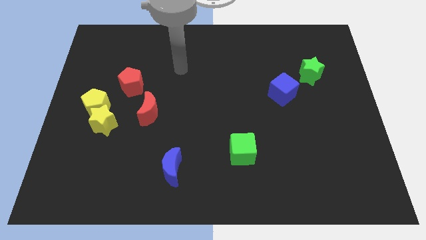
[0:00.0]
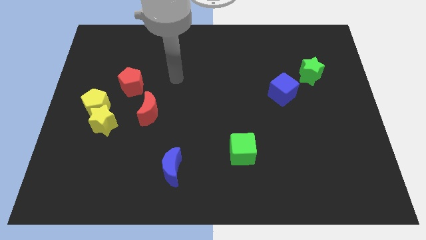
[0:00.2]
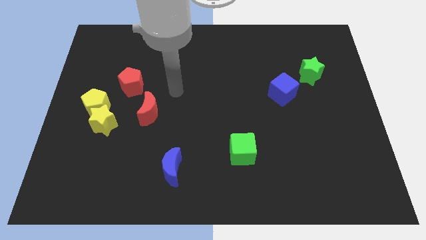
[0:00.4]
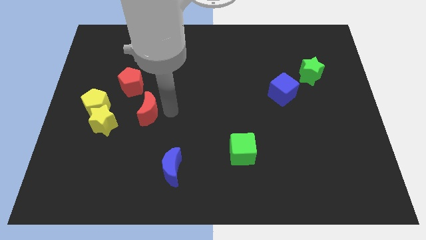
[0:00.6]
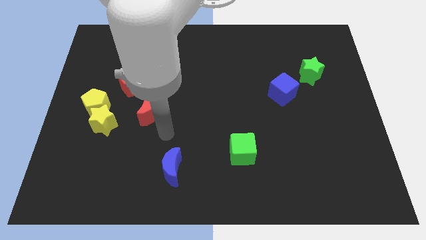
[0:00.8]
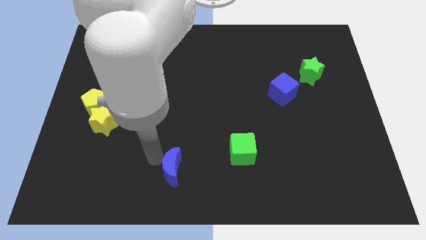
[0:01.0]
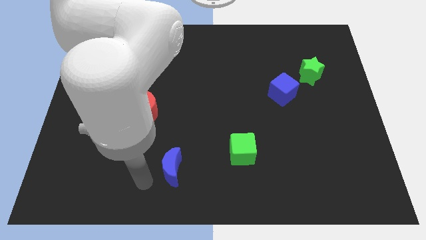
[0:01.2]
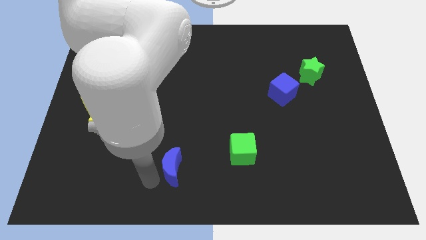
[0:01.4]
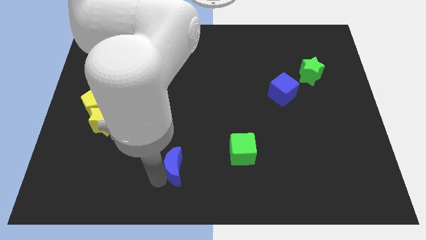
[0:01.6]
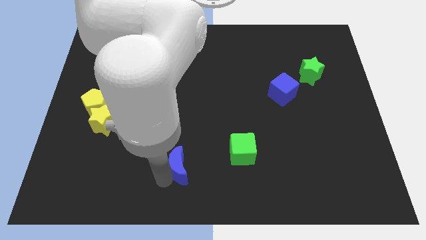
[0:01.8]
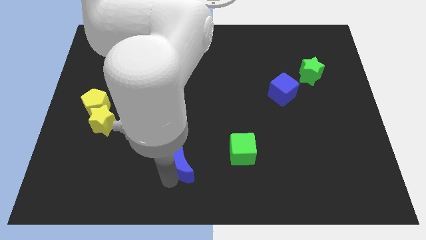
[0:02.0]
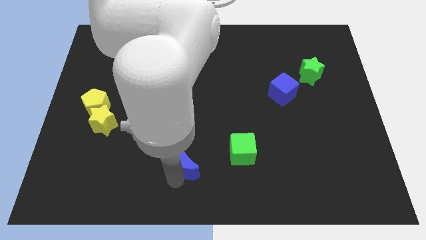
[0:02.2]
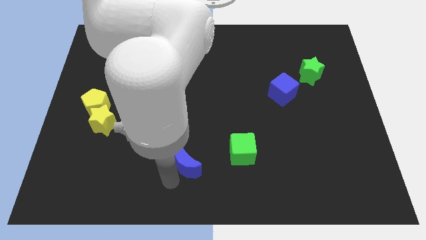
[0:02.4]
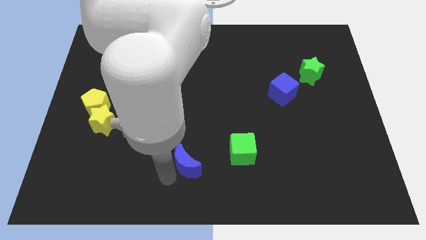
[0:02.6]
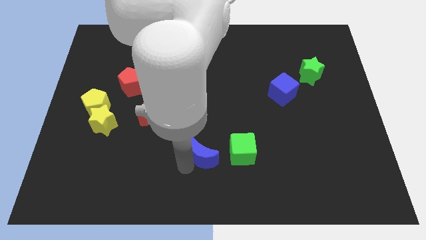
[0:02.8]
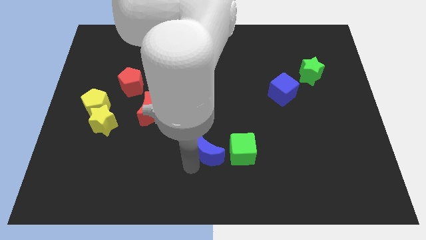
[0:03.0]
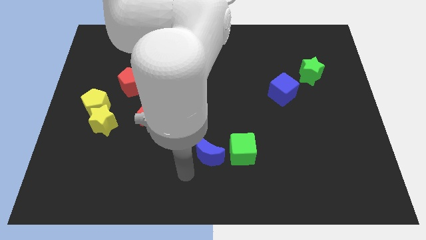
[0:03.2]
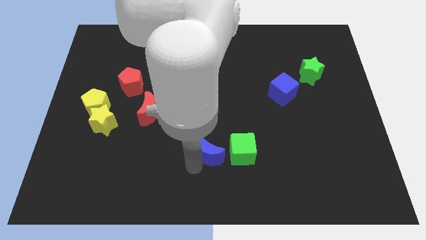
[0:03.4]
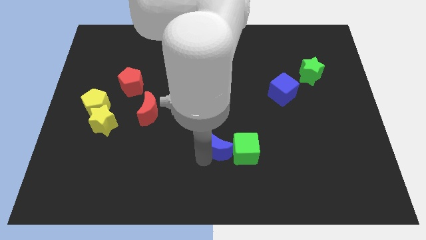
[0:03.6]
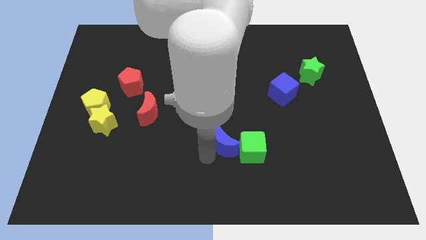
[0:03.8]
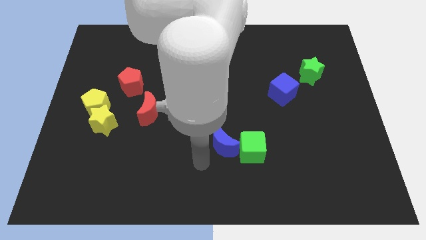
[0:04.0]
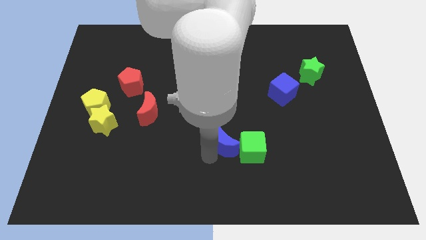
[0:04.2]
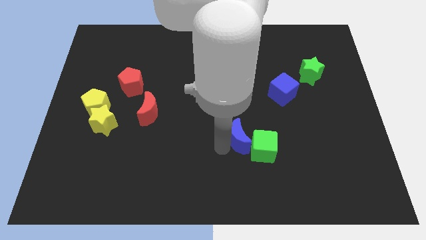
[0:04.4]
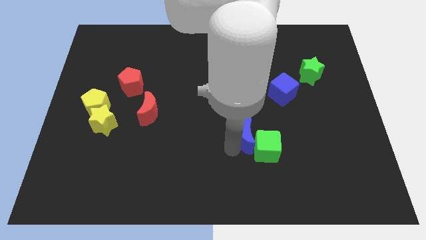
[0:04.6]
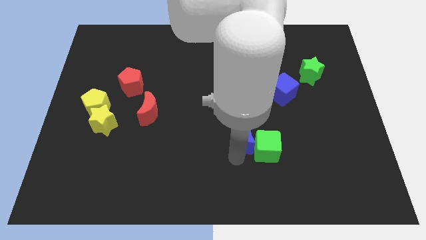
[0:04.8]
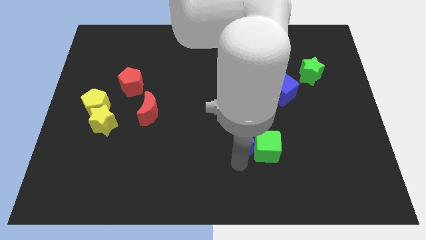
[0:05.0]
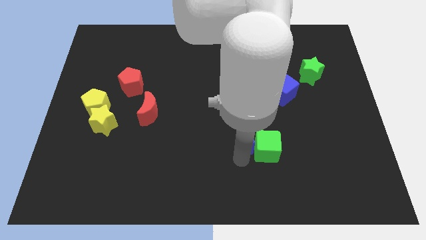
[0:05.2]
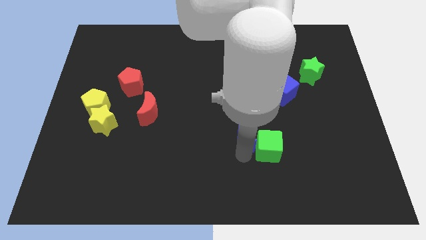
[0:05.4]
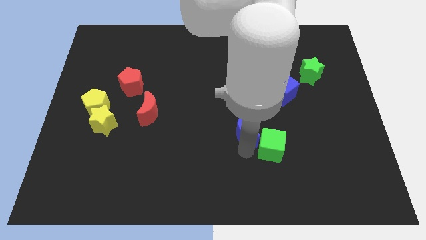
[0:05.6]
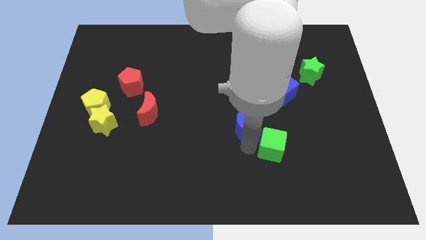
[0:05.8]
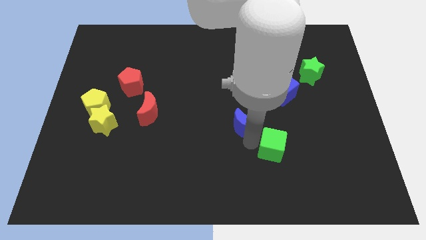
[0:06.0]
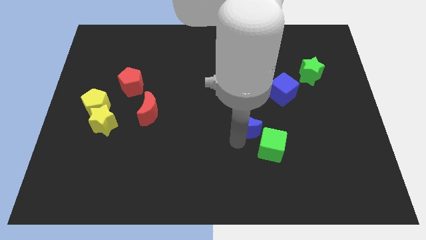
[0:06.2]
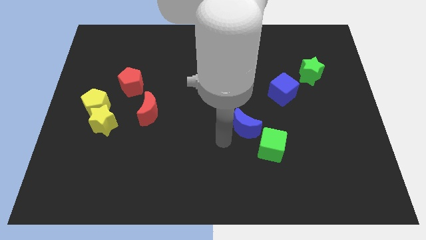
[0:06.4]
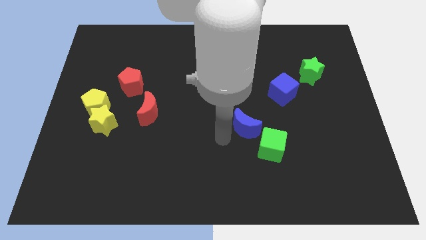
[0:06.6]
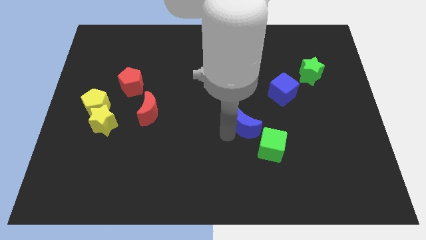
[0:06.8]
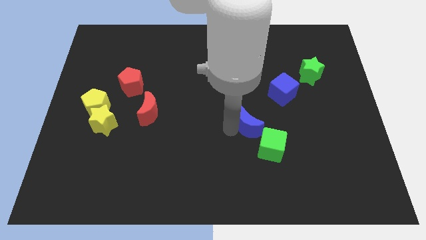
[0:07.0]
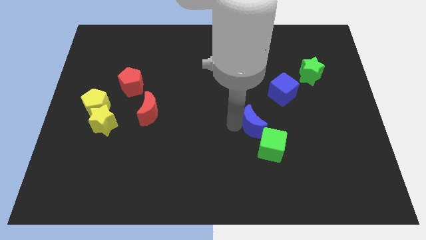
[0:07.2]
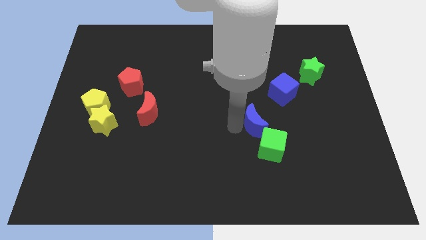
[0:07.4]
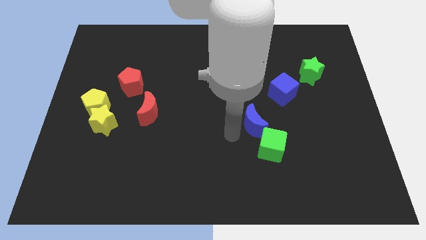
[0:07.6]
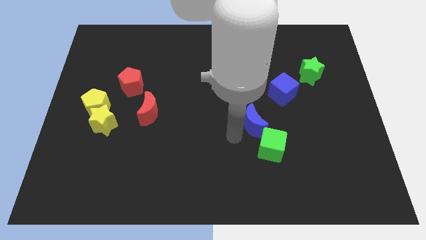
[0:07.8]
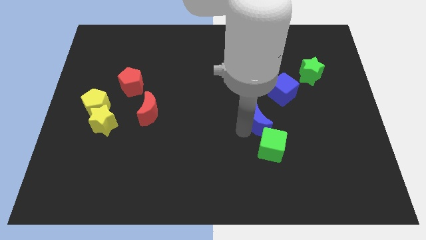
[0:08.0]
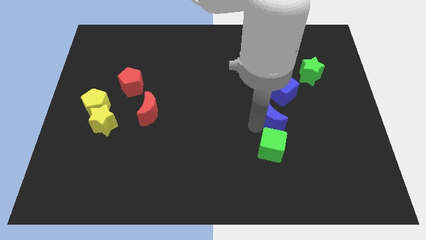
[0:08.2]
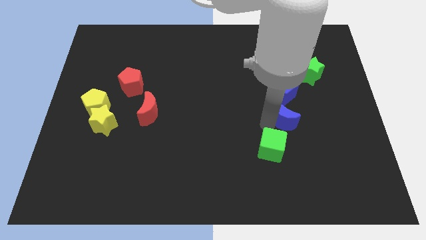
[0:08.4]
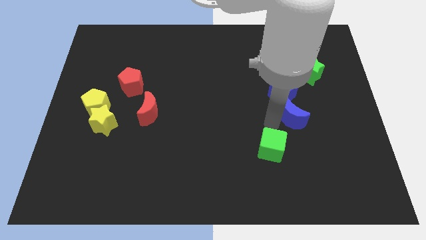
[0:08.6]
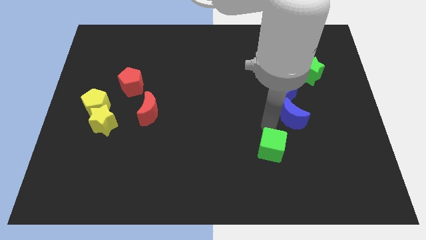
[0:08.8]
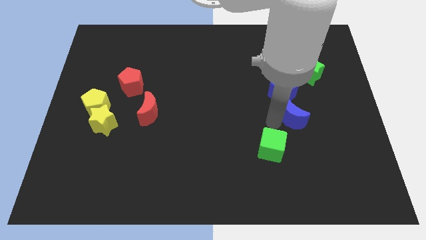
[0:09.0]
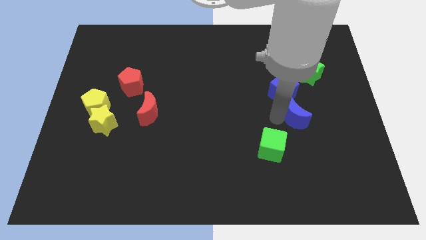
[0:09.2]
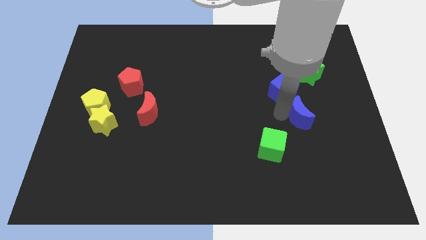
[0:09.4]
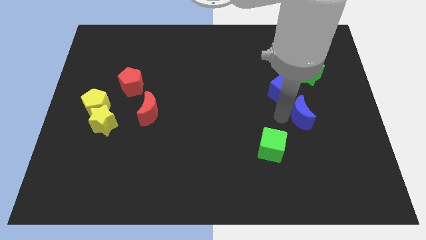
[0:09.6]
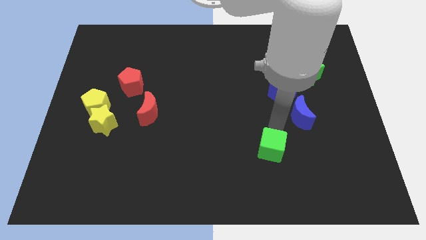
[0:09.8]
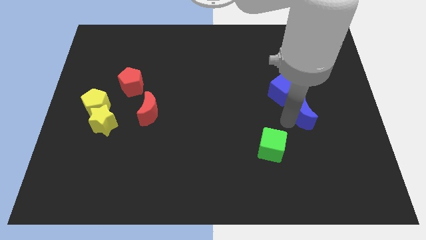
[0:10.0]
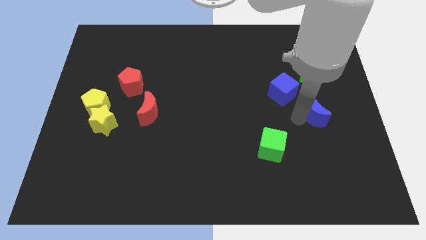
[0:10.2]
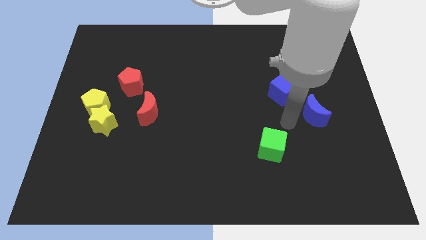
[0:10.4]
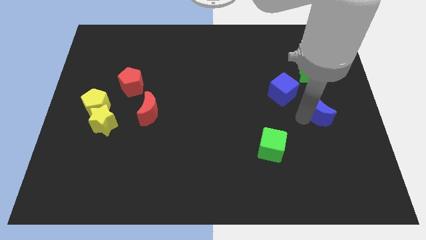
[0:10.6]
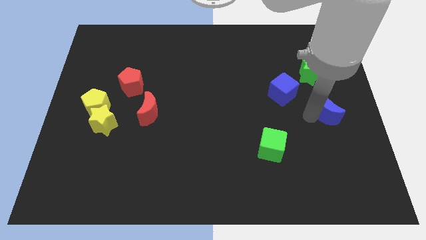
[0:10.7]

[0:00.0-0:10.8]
move the blue moon to the right side

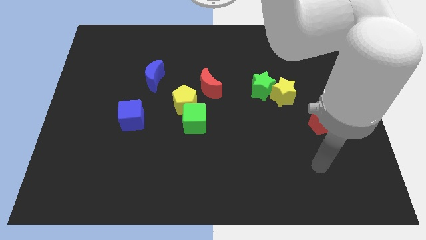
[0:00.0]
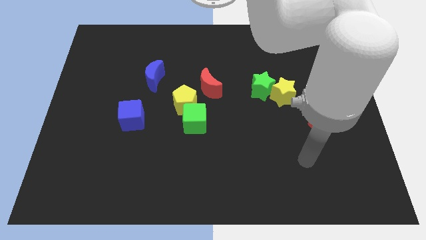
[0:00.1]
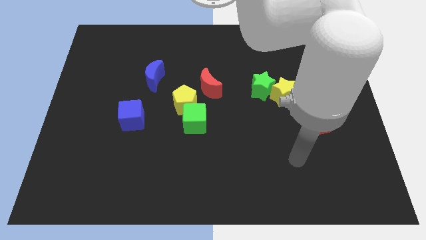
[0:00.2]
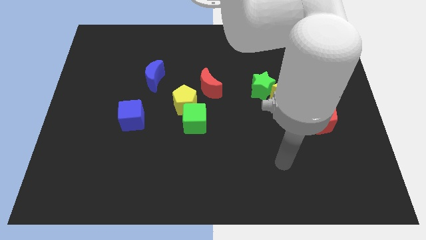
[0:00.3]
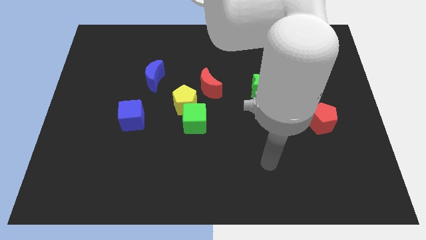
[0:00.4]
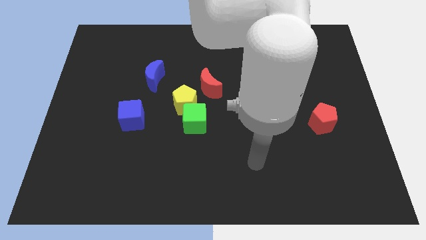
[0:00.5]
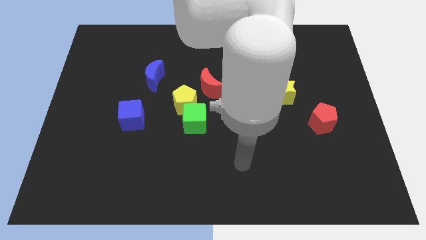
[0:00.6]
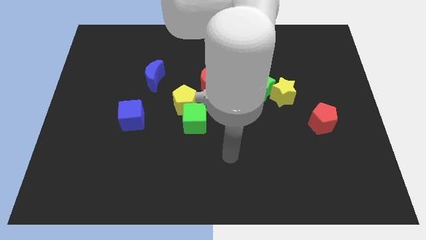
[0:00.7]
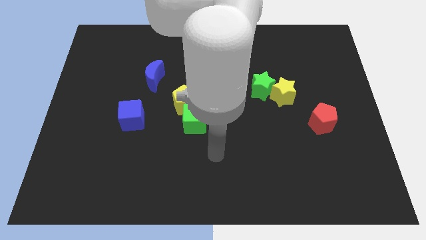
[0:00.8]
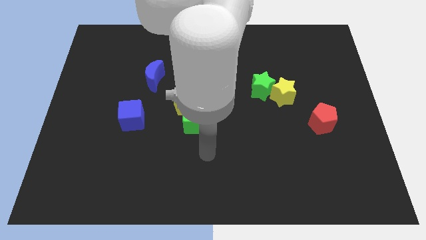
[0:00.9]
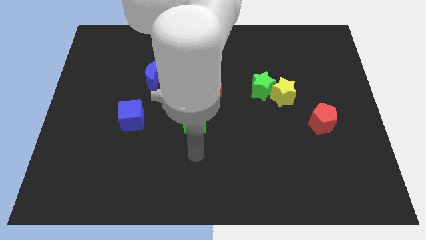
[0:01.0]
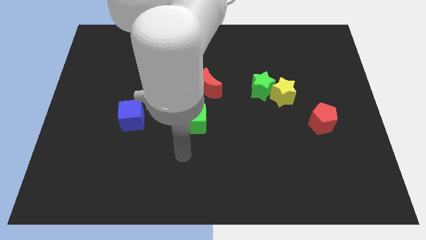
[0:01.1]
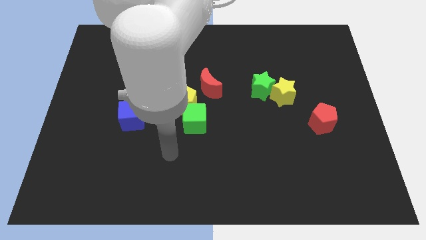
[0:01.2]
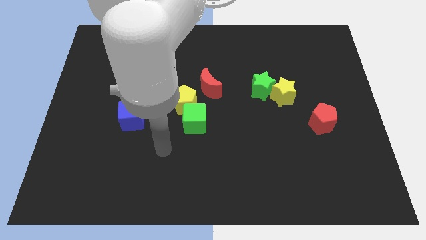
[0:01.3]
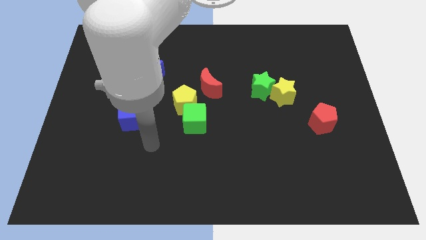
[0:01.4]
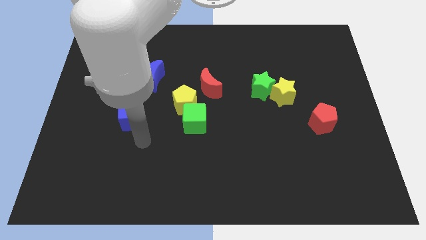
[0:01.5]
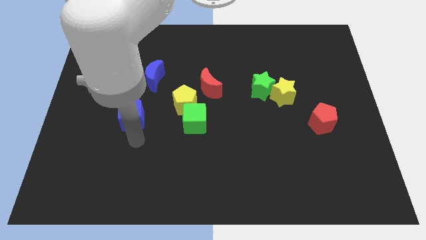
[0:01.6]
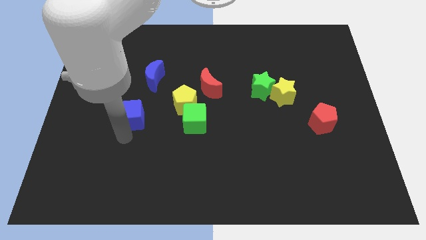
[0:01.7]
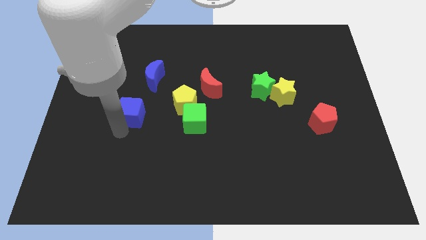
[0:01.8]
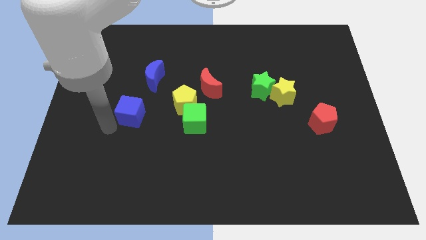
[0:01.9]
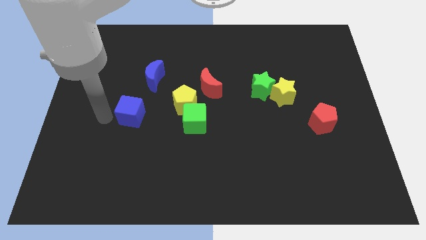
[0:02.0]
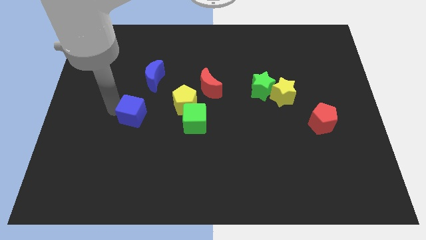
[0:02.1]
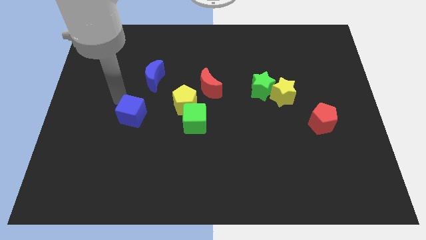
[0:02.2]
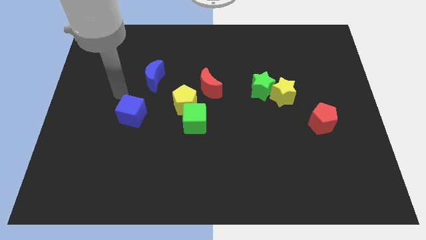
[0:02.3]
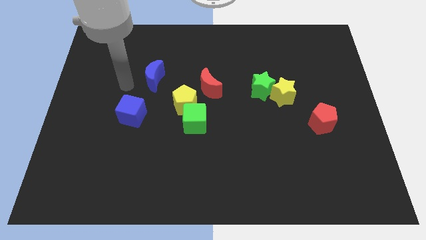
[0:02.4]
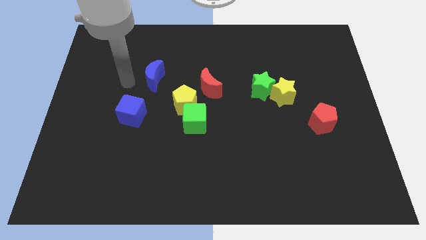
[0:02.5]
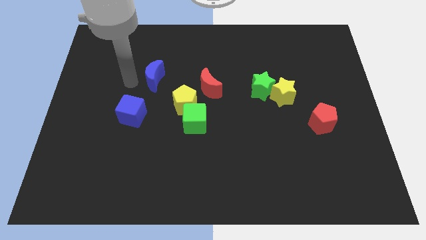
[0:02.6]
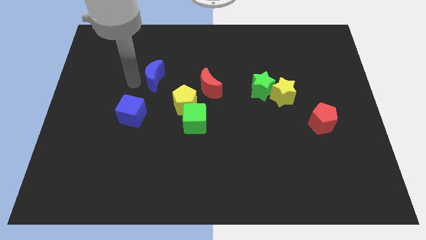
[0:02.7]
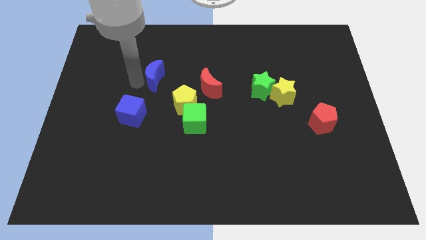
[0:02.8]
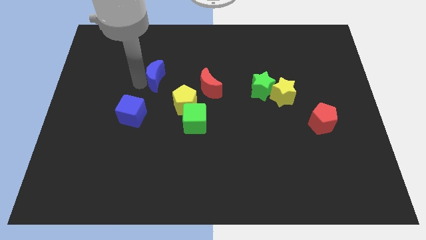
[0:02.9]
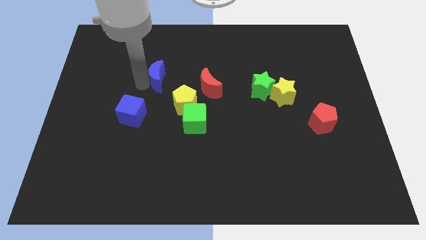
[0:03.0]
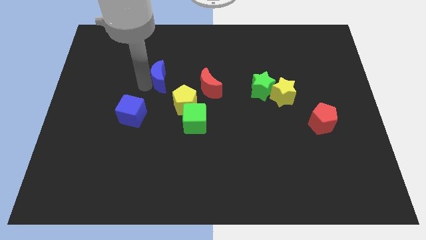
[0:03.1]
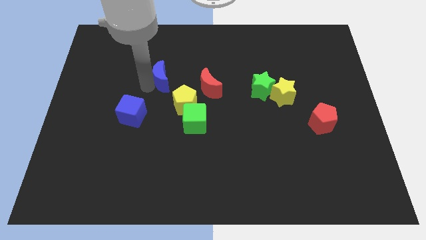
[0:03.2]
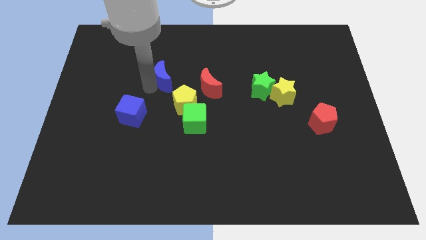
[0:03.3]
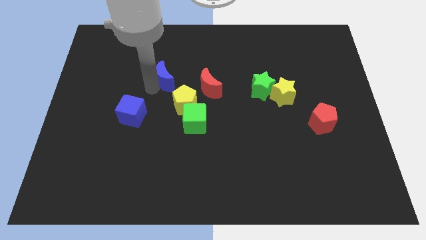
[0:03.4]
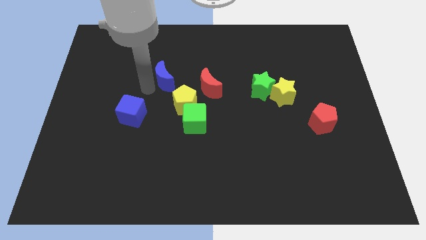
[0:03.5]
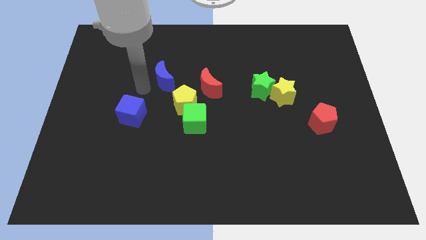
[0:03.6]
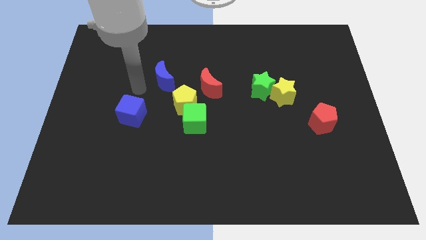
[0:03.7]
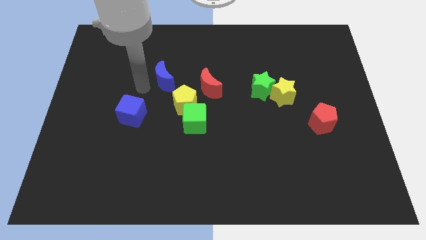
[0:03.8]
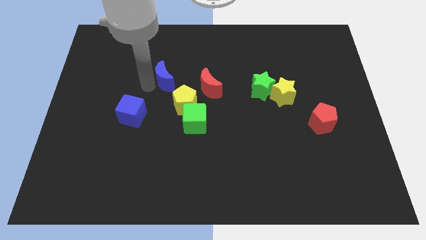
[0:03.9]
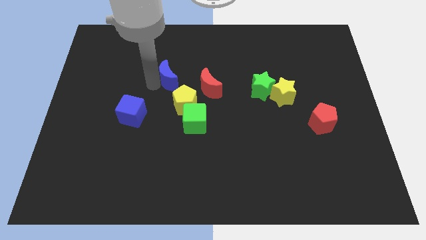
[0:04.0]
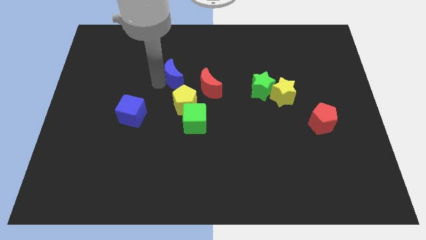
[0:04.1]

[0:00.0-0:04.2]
push the blue moon to the middle
